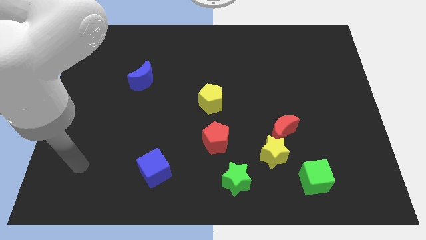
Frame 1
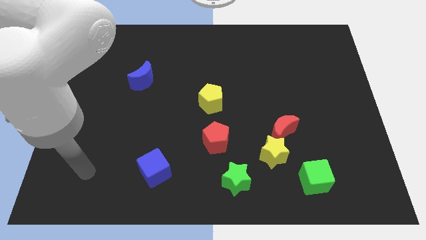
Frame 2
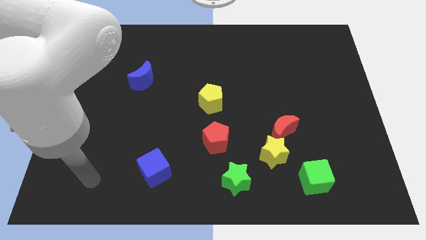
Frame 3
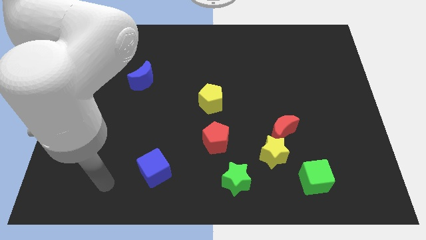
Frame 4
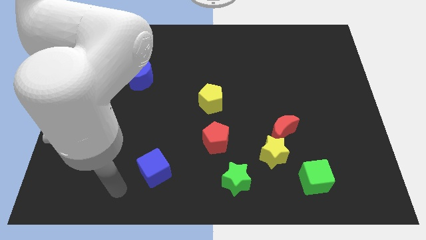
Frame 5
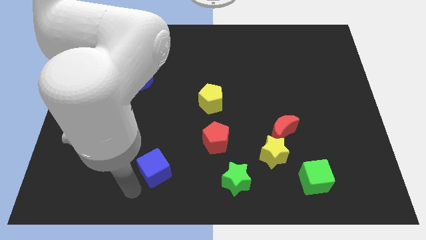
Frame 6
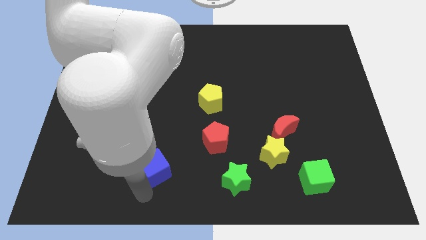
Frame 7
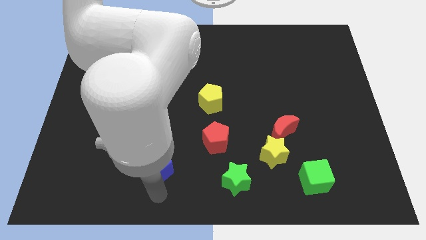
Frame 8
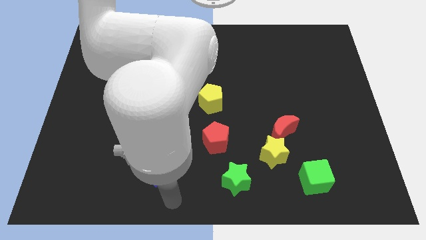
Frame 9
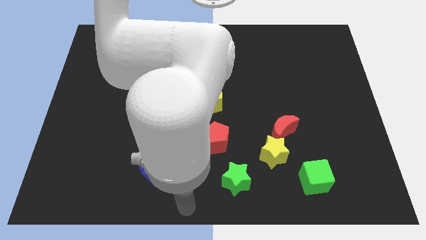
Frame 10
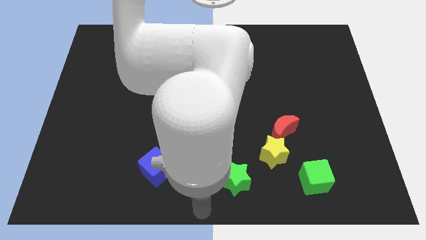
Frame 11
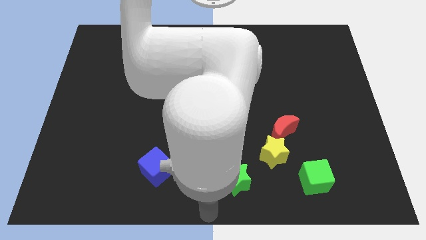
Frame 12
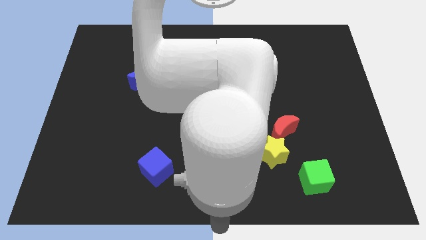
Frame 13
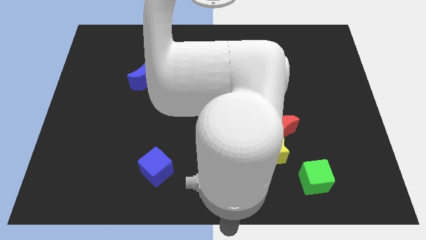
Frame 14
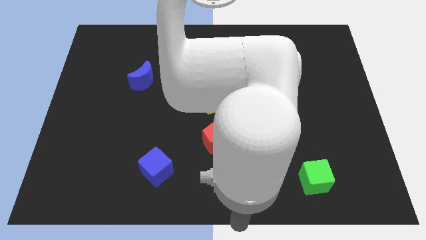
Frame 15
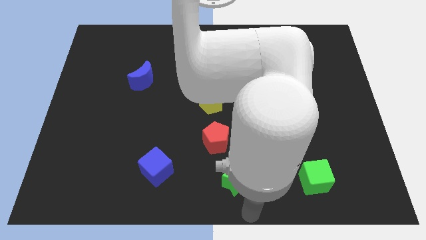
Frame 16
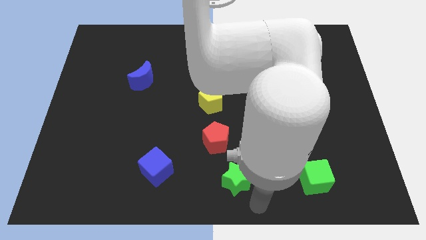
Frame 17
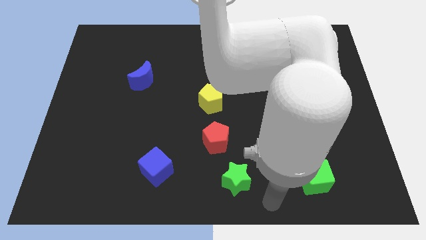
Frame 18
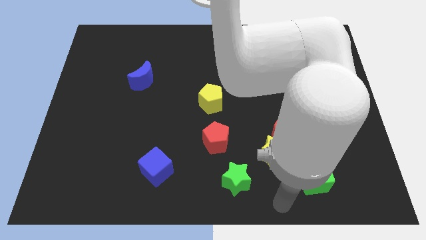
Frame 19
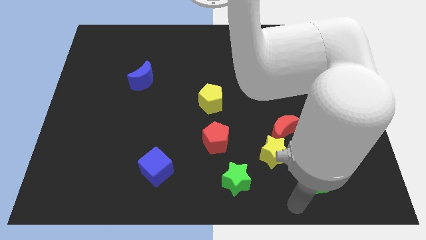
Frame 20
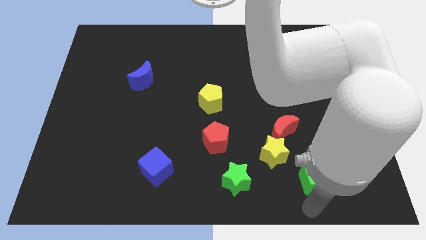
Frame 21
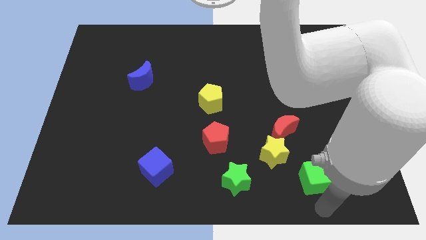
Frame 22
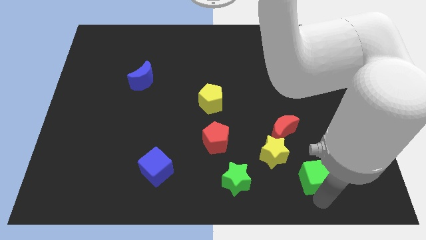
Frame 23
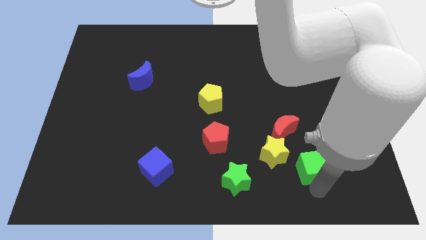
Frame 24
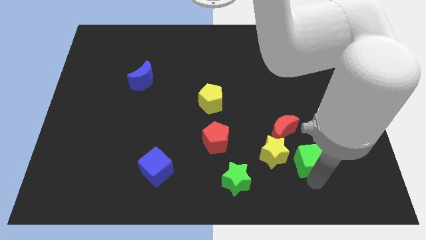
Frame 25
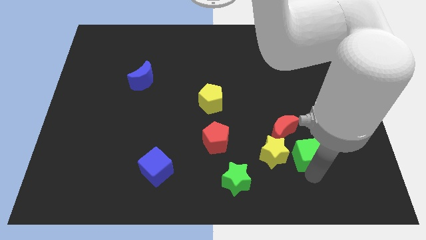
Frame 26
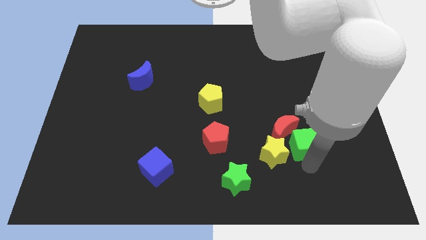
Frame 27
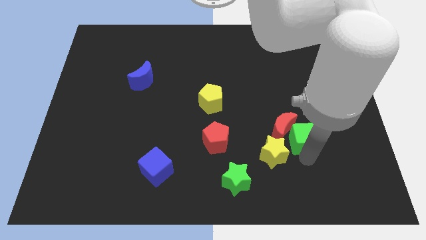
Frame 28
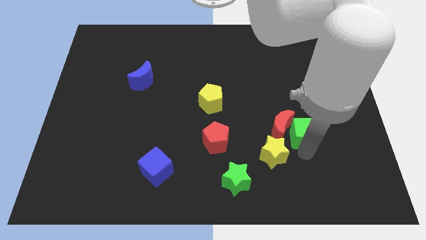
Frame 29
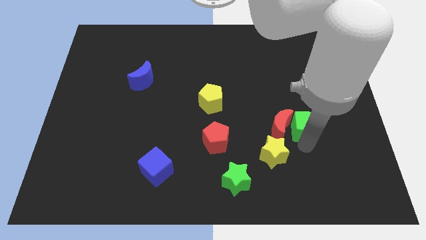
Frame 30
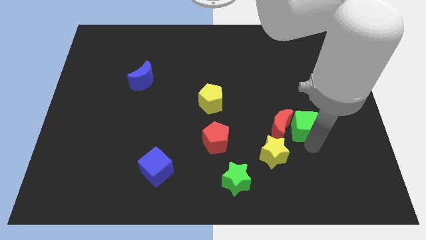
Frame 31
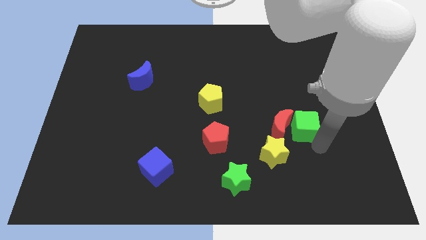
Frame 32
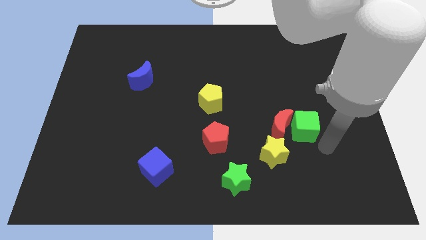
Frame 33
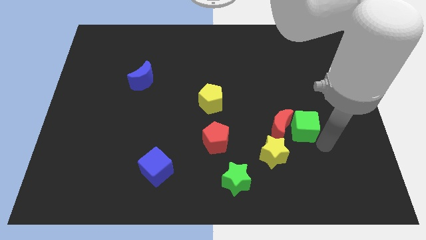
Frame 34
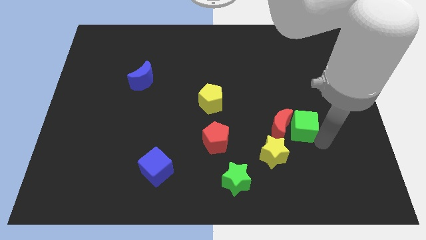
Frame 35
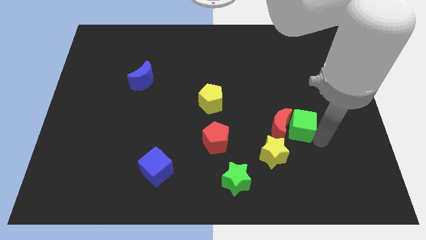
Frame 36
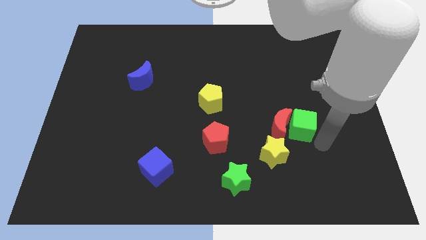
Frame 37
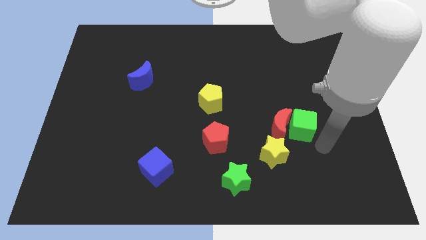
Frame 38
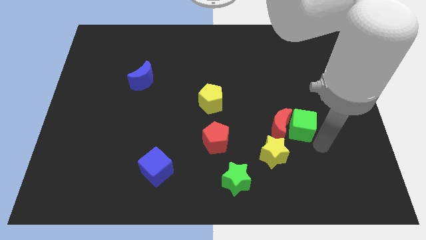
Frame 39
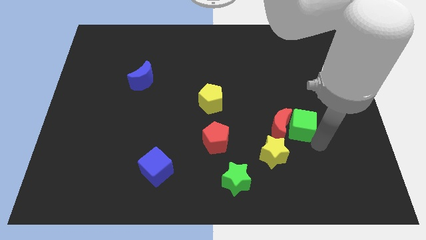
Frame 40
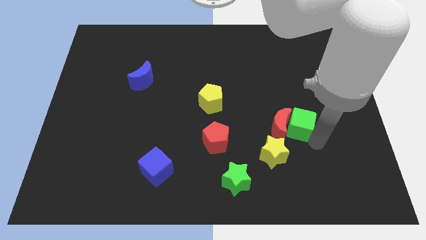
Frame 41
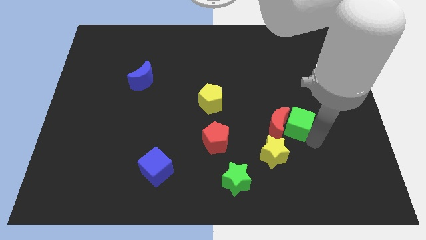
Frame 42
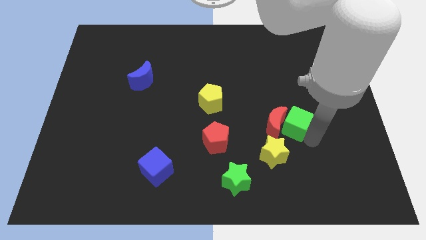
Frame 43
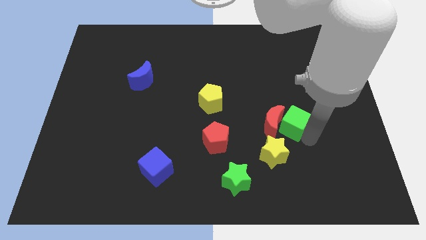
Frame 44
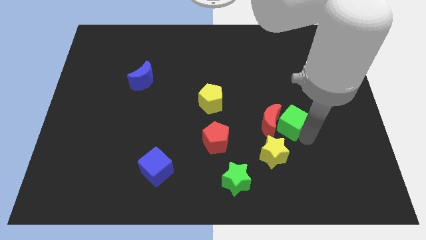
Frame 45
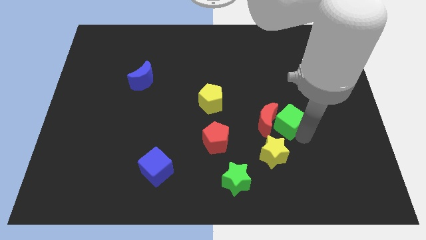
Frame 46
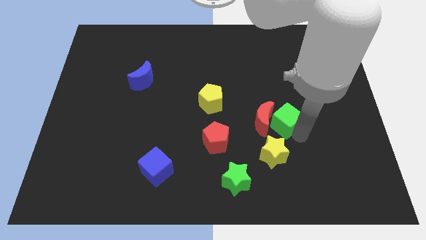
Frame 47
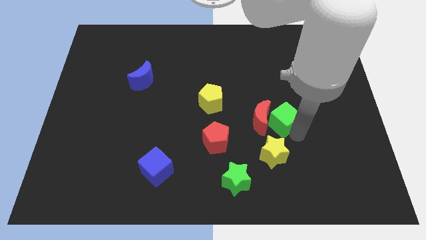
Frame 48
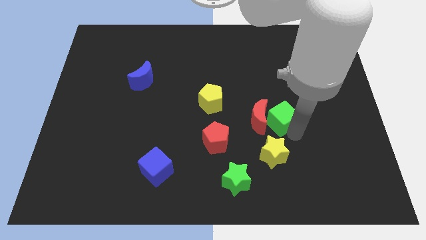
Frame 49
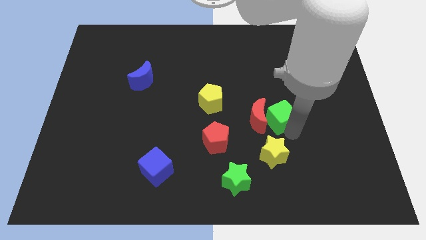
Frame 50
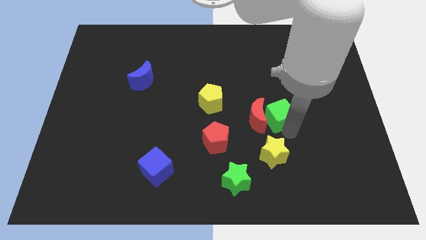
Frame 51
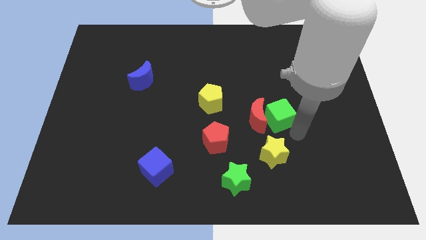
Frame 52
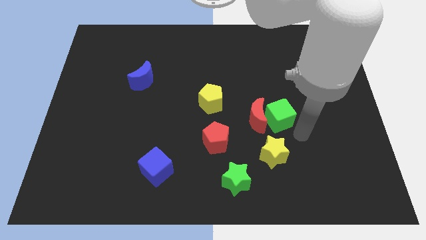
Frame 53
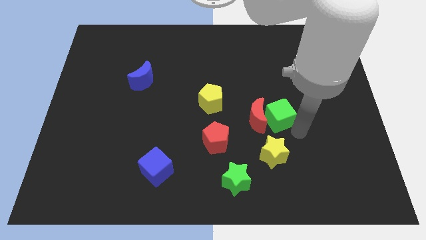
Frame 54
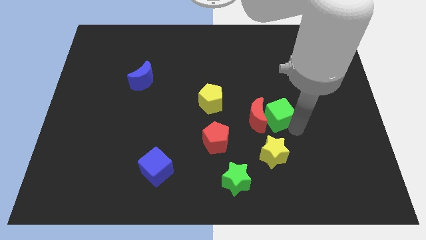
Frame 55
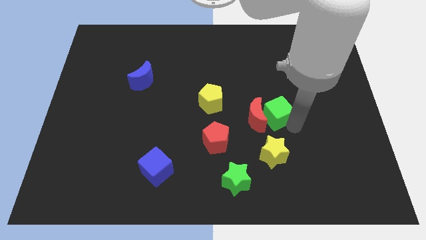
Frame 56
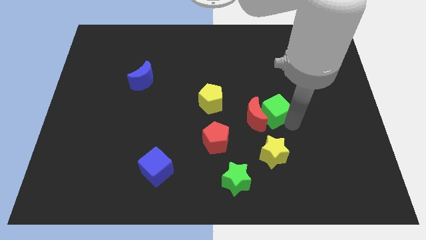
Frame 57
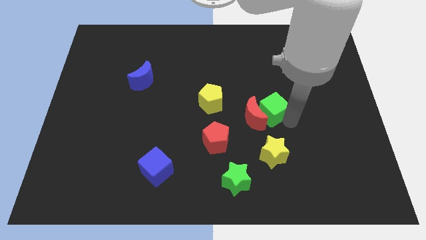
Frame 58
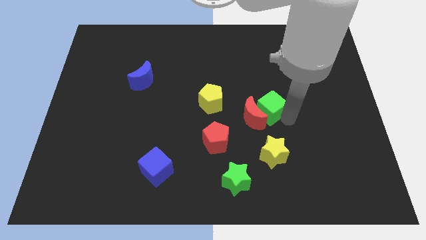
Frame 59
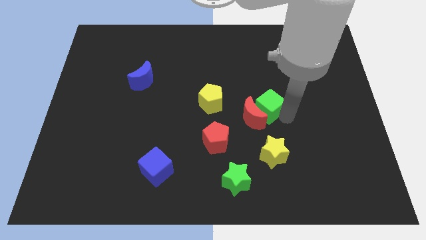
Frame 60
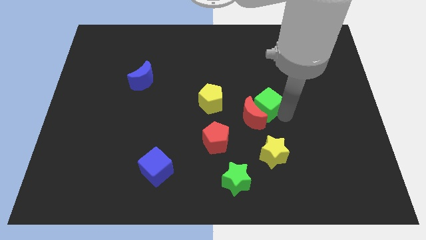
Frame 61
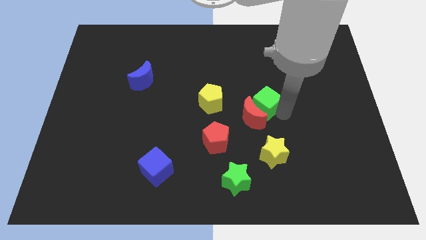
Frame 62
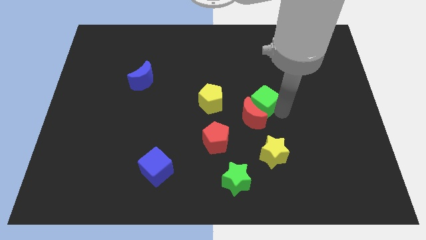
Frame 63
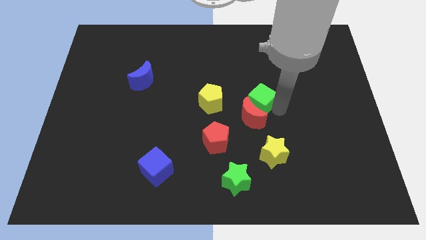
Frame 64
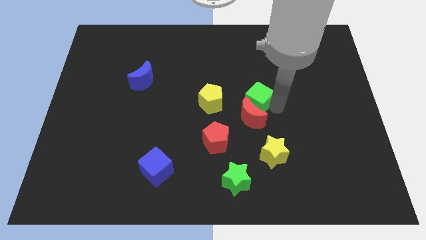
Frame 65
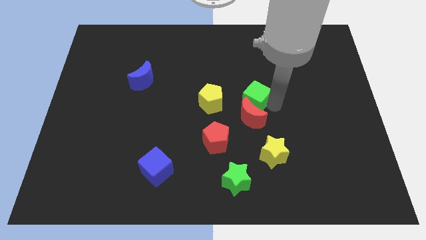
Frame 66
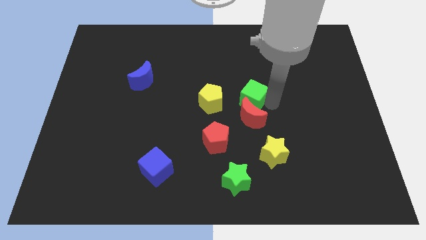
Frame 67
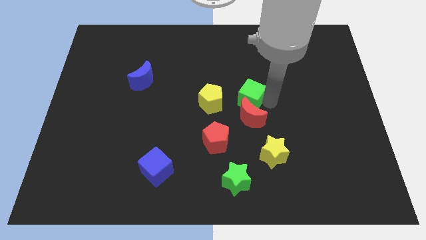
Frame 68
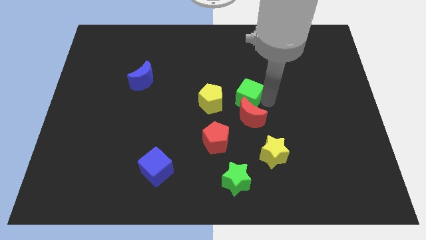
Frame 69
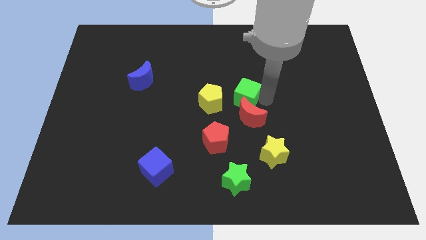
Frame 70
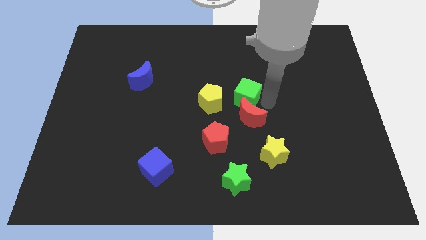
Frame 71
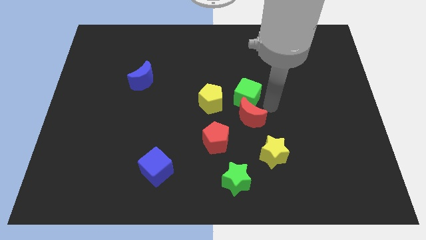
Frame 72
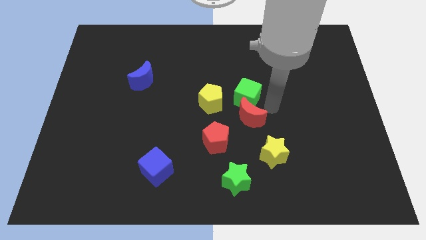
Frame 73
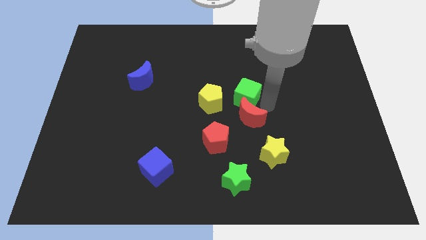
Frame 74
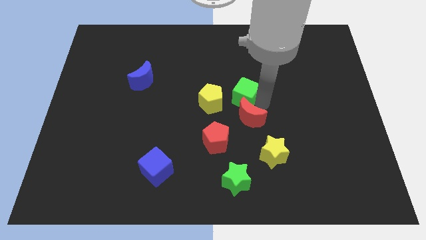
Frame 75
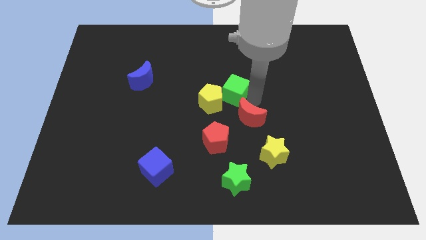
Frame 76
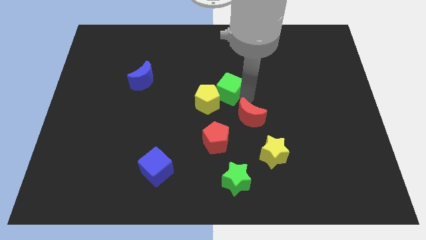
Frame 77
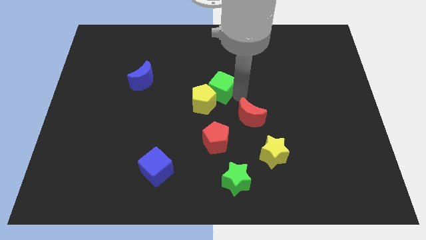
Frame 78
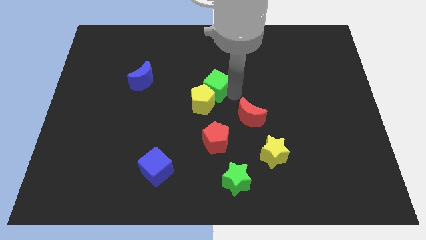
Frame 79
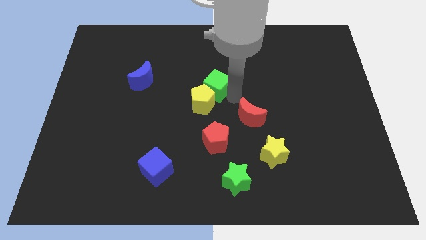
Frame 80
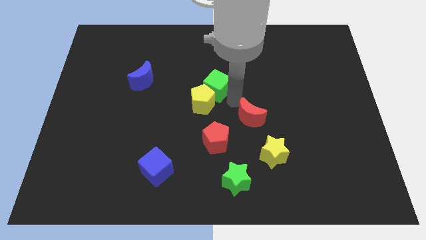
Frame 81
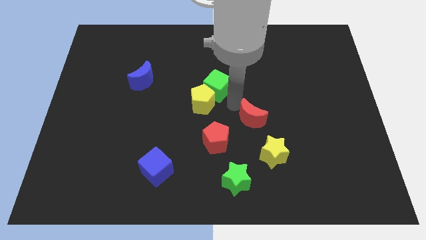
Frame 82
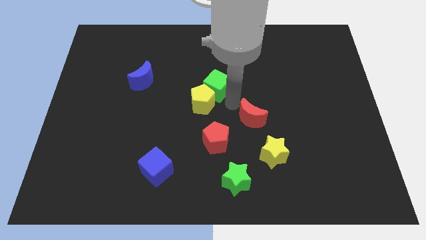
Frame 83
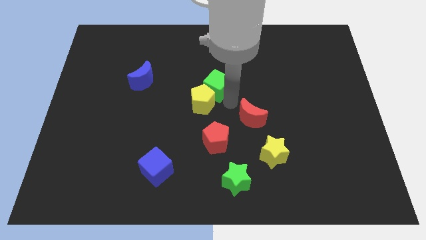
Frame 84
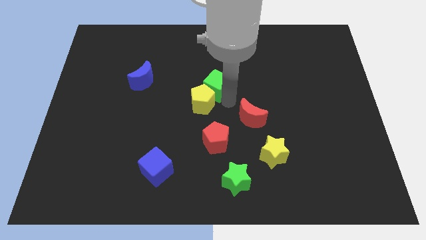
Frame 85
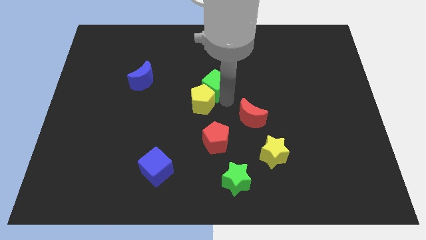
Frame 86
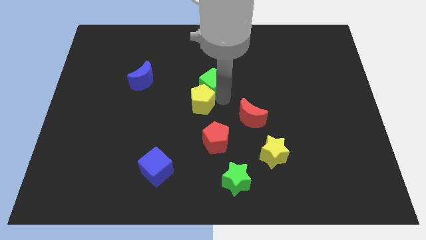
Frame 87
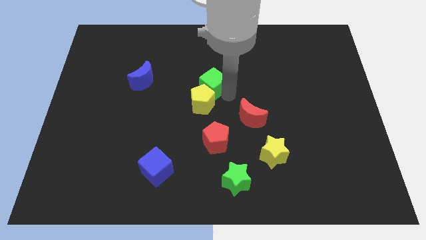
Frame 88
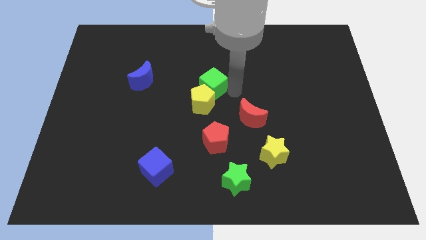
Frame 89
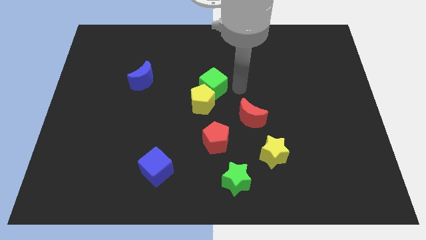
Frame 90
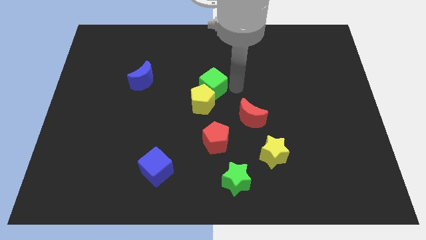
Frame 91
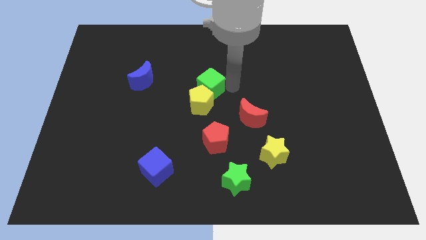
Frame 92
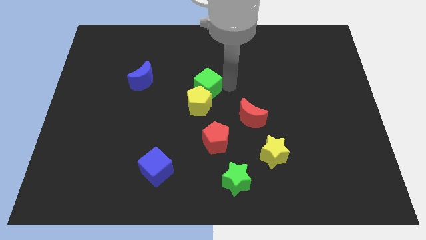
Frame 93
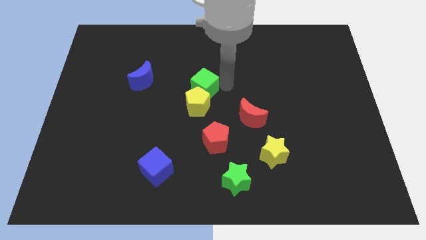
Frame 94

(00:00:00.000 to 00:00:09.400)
put the green cube to the top left side of the yellow pentagon
